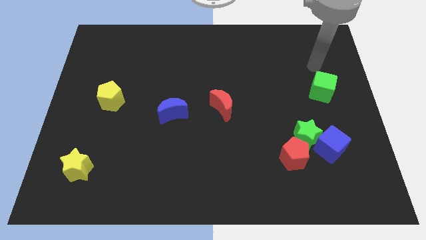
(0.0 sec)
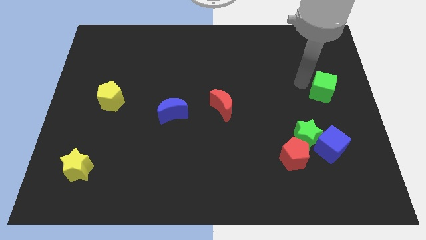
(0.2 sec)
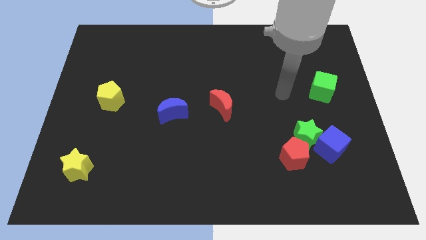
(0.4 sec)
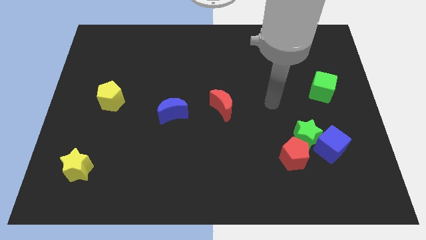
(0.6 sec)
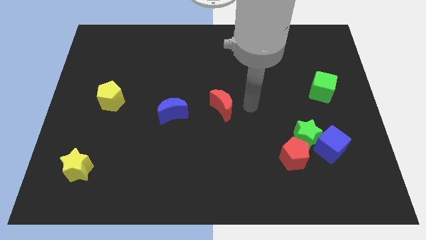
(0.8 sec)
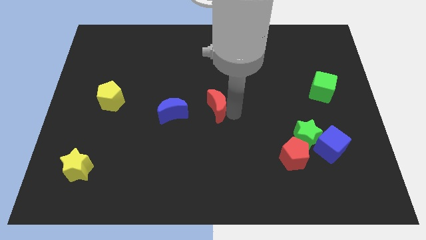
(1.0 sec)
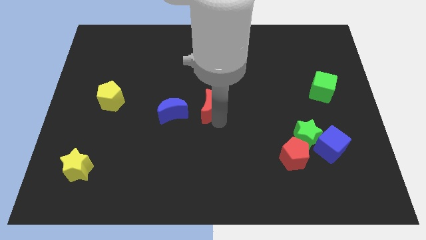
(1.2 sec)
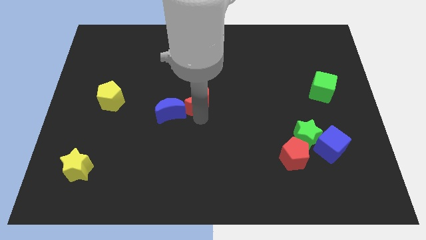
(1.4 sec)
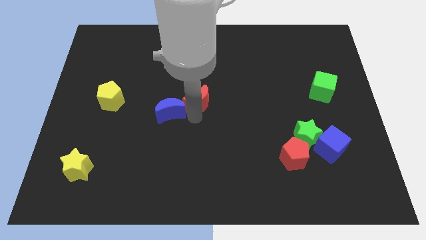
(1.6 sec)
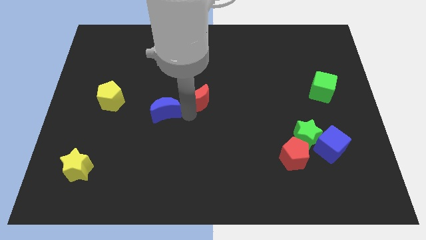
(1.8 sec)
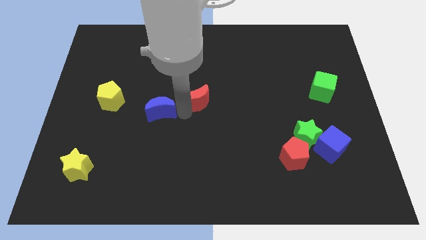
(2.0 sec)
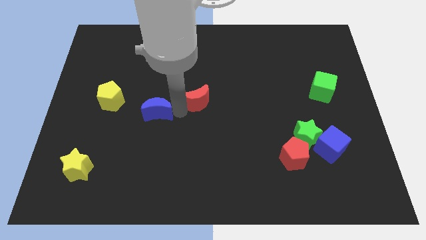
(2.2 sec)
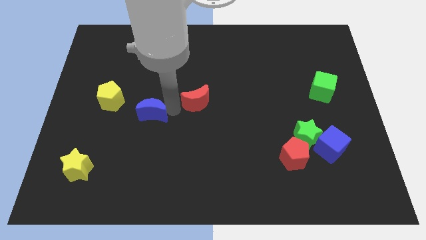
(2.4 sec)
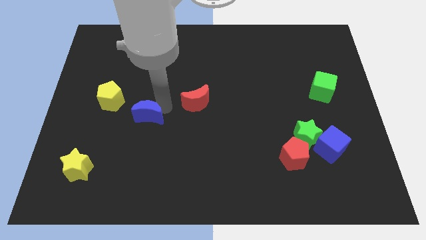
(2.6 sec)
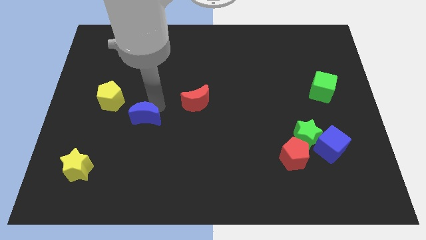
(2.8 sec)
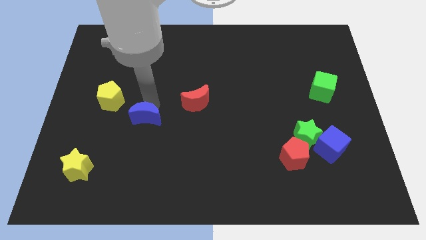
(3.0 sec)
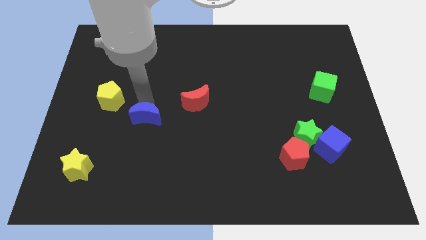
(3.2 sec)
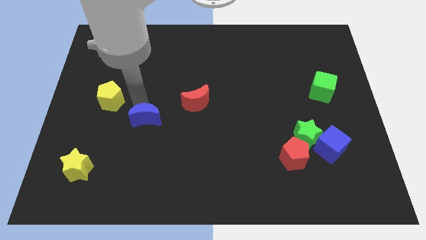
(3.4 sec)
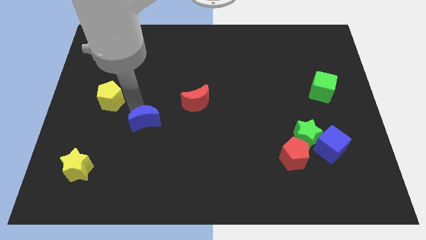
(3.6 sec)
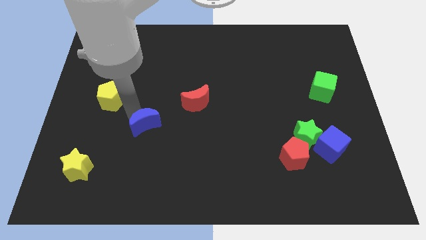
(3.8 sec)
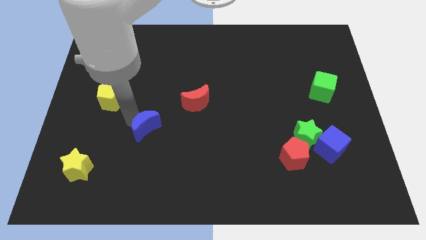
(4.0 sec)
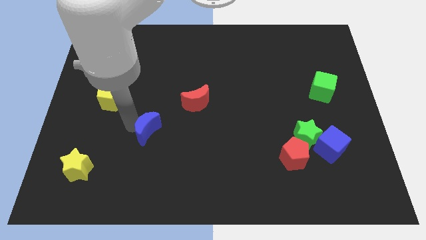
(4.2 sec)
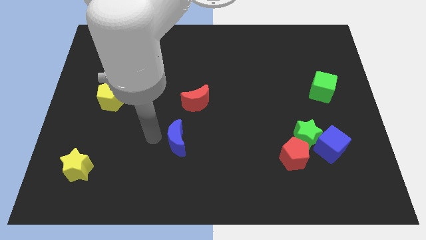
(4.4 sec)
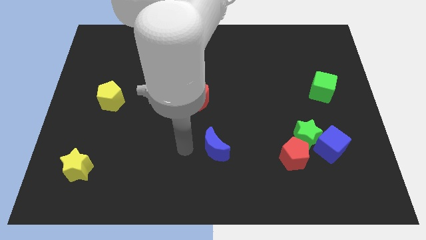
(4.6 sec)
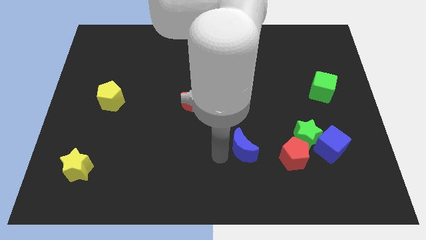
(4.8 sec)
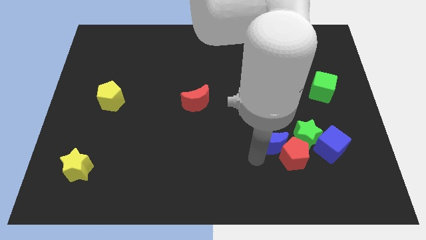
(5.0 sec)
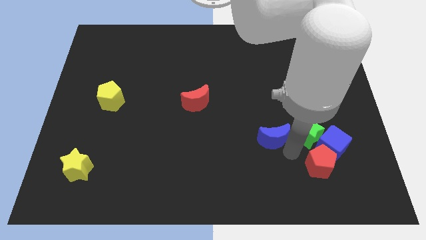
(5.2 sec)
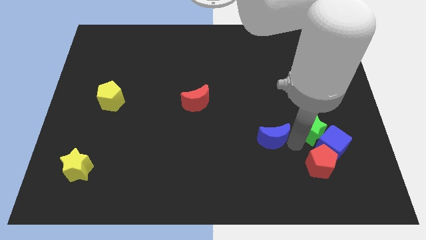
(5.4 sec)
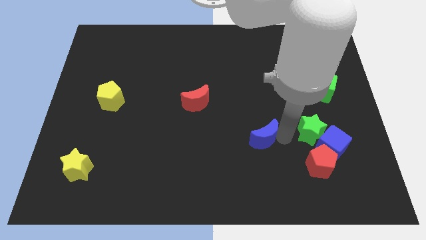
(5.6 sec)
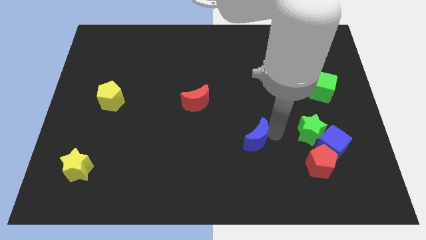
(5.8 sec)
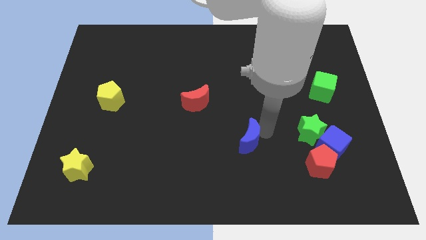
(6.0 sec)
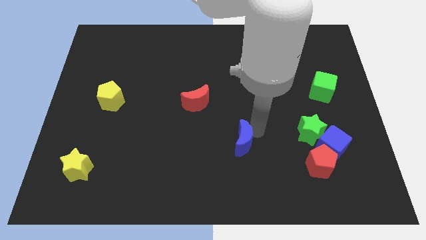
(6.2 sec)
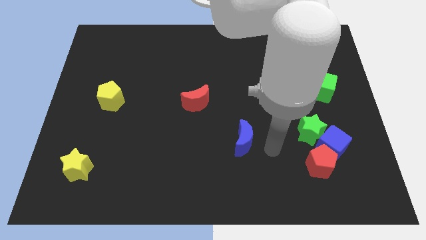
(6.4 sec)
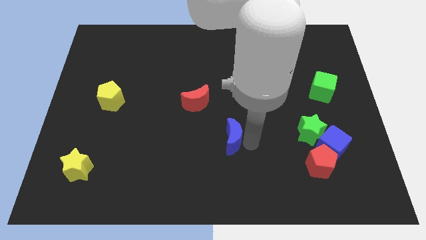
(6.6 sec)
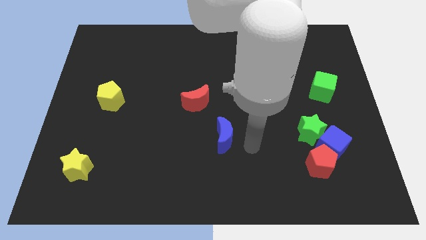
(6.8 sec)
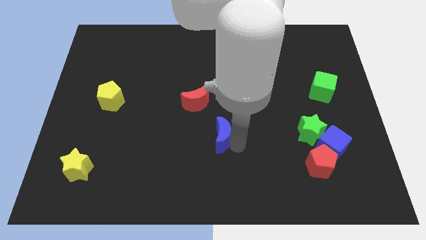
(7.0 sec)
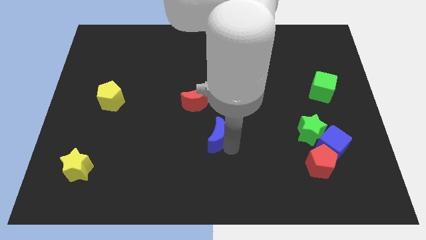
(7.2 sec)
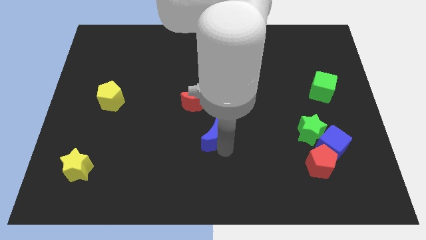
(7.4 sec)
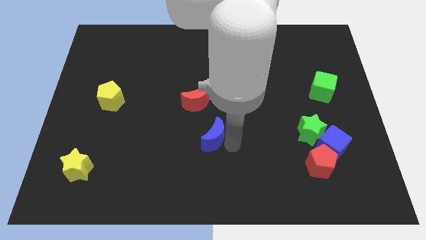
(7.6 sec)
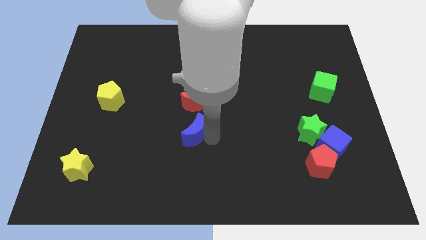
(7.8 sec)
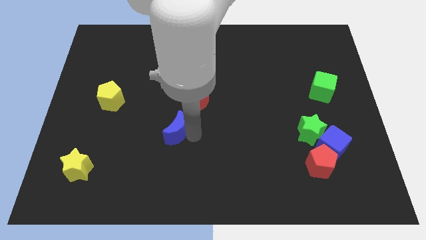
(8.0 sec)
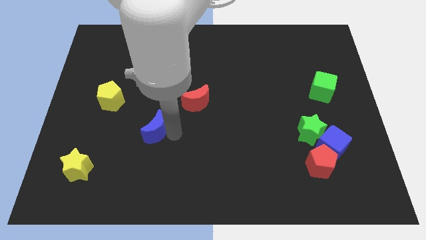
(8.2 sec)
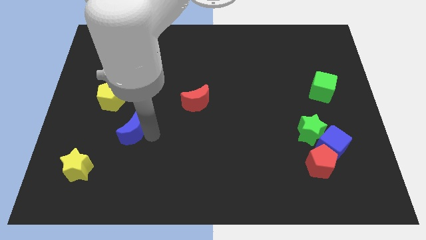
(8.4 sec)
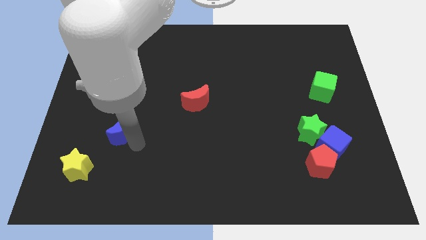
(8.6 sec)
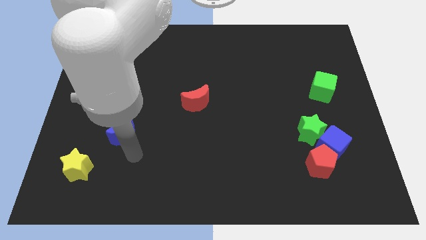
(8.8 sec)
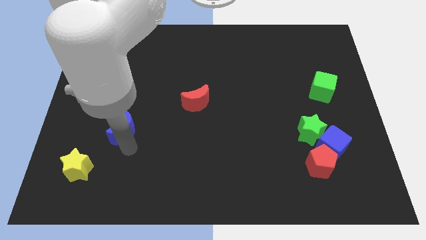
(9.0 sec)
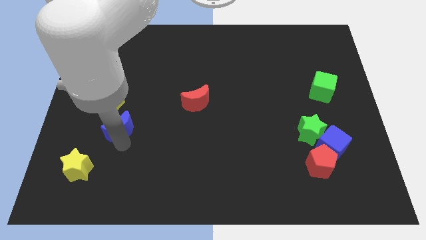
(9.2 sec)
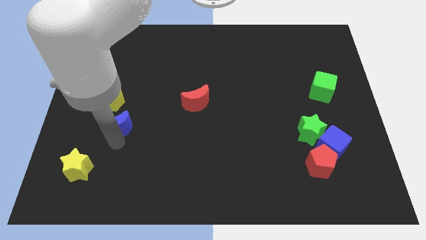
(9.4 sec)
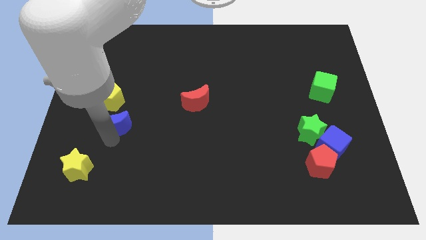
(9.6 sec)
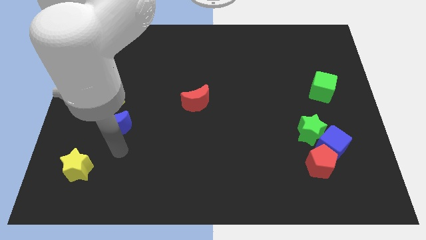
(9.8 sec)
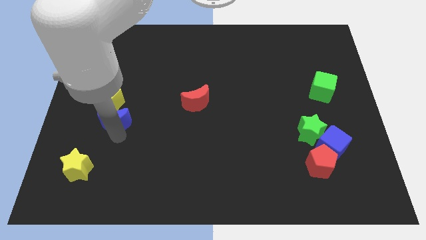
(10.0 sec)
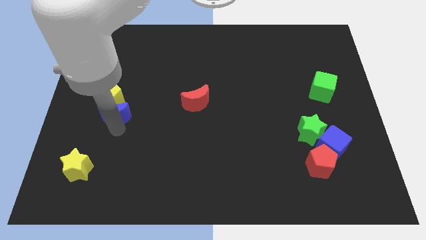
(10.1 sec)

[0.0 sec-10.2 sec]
push the blue moon towards the yellow pentagon

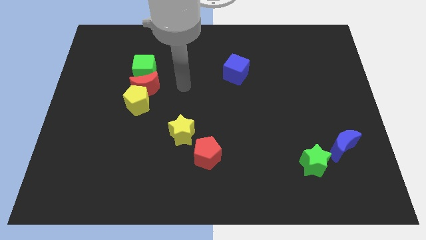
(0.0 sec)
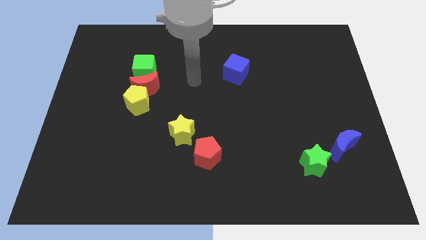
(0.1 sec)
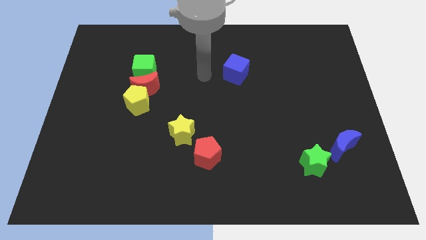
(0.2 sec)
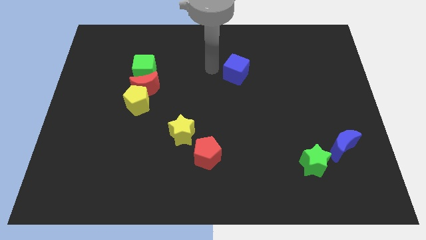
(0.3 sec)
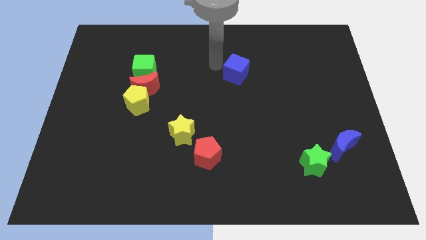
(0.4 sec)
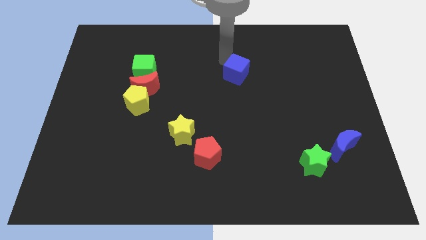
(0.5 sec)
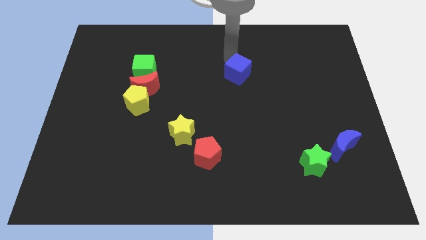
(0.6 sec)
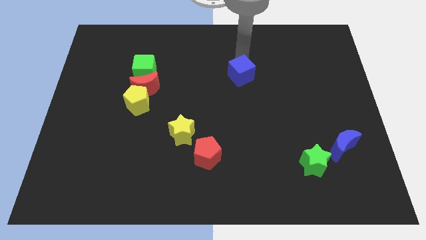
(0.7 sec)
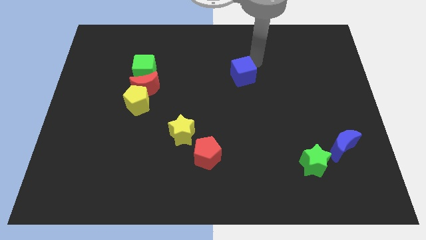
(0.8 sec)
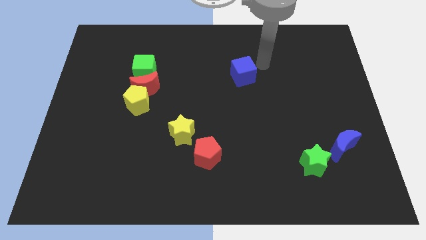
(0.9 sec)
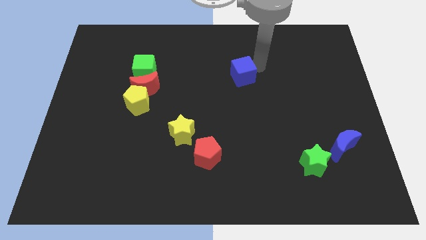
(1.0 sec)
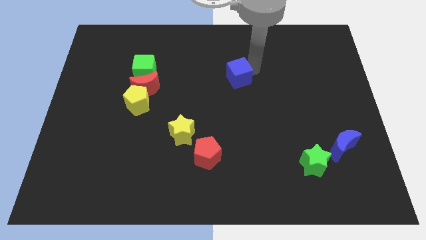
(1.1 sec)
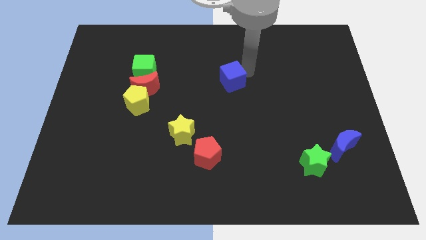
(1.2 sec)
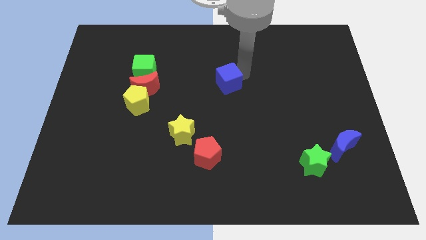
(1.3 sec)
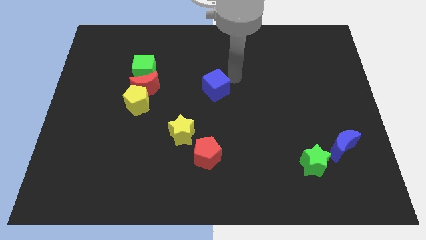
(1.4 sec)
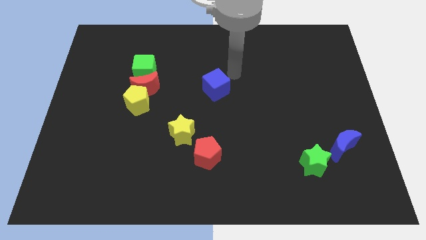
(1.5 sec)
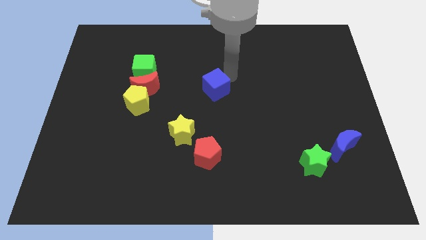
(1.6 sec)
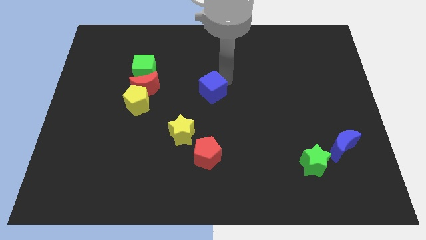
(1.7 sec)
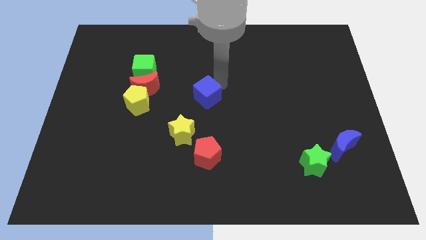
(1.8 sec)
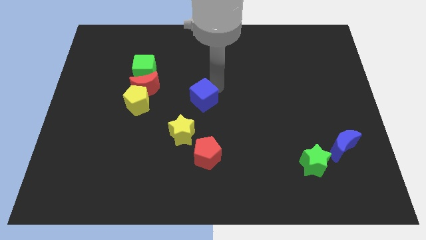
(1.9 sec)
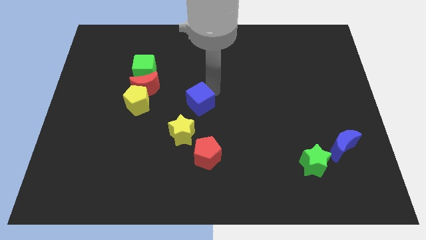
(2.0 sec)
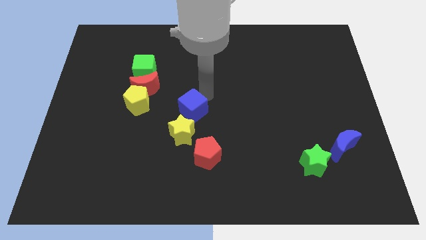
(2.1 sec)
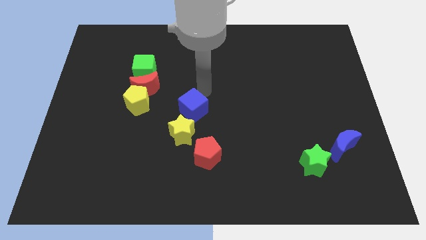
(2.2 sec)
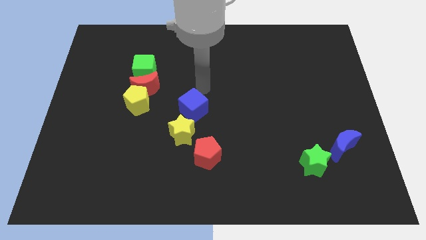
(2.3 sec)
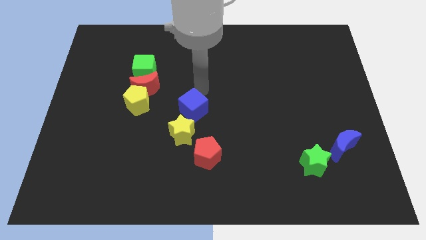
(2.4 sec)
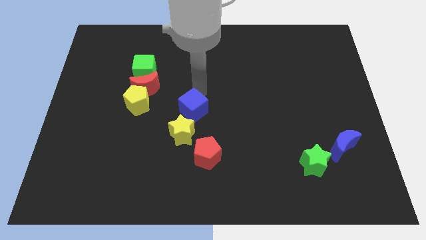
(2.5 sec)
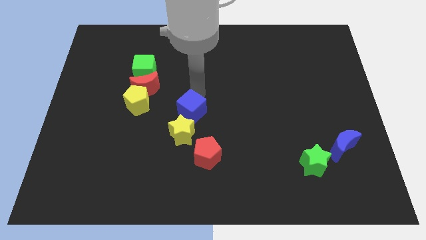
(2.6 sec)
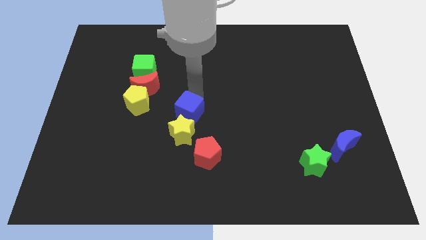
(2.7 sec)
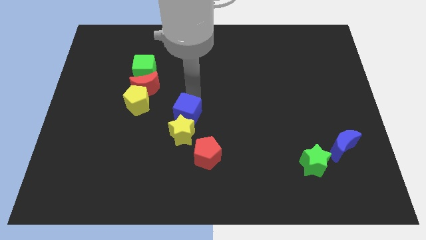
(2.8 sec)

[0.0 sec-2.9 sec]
push the blue cube close to the yellow star
